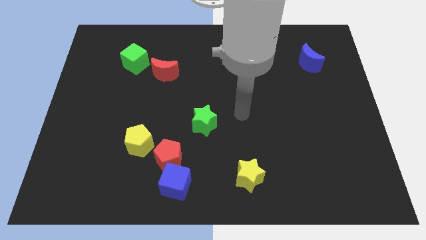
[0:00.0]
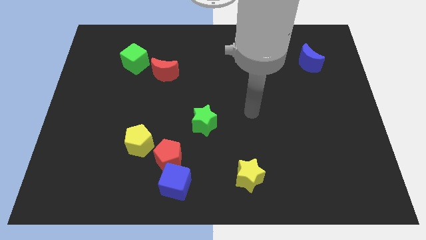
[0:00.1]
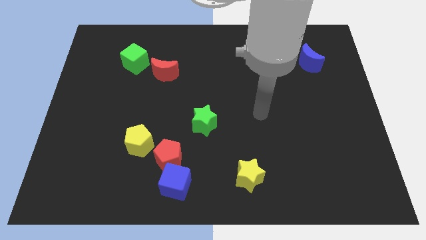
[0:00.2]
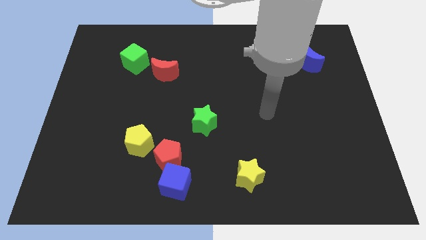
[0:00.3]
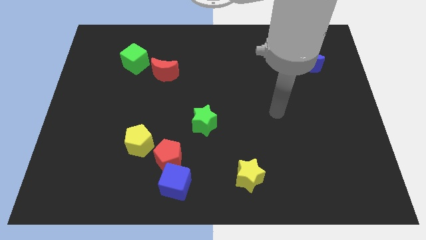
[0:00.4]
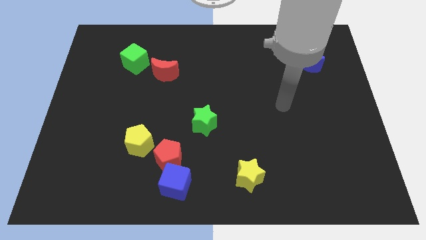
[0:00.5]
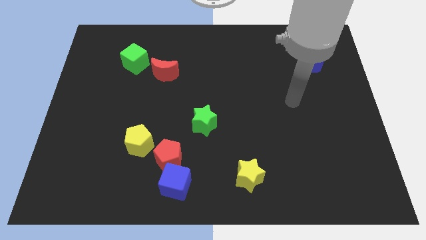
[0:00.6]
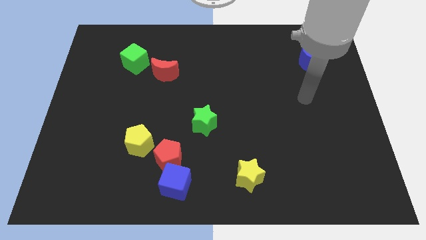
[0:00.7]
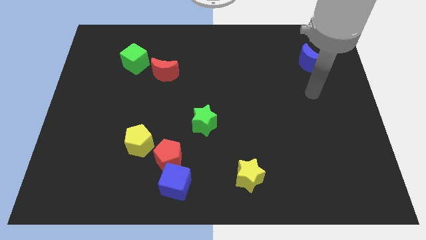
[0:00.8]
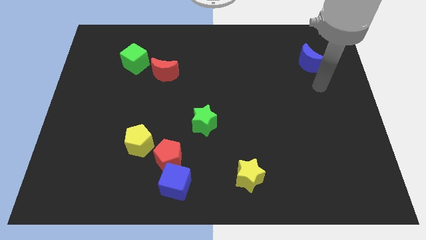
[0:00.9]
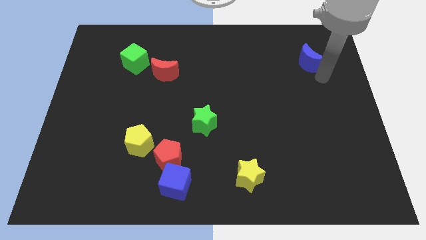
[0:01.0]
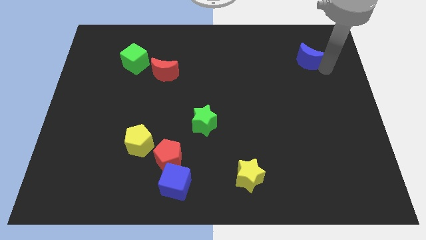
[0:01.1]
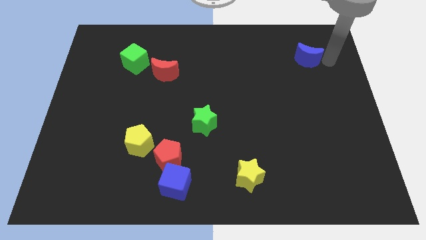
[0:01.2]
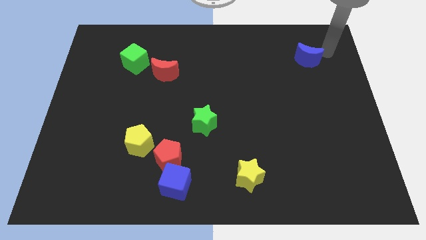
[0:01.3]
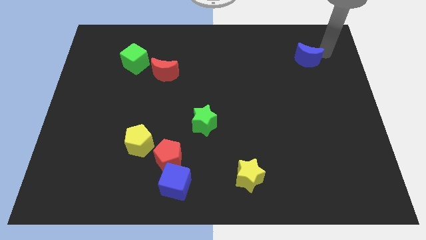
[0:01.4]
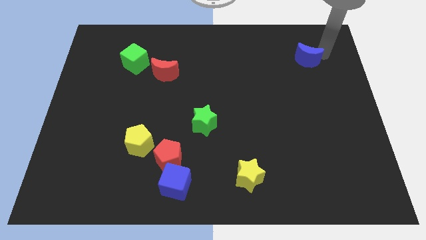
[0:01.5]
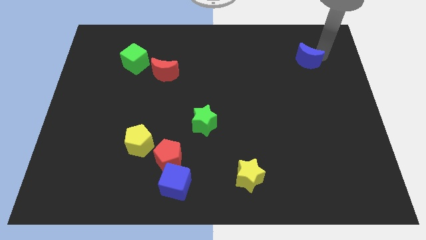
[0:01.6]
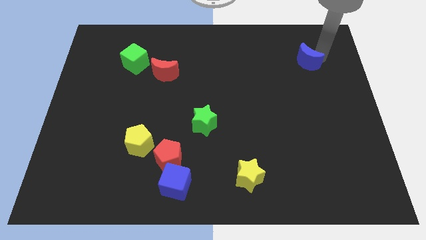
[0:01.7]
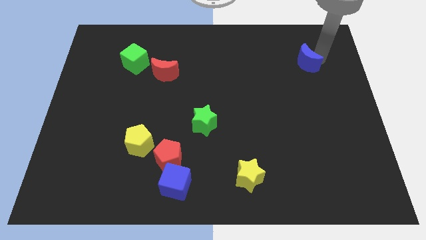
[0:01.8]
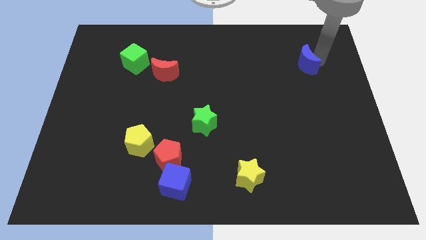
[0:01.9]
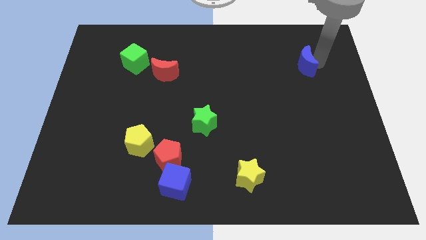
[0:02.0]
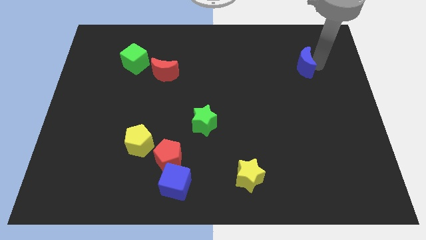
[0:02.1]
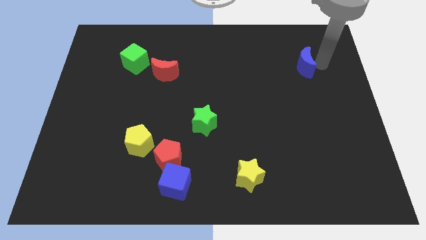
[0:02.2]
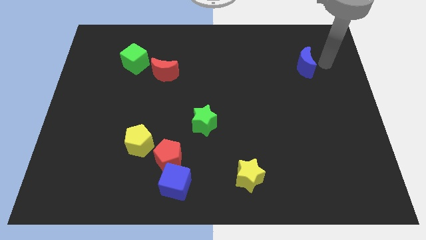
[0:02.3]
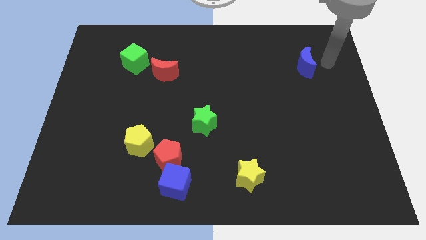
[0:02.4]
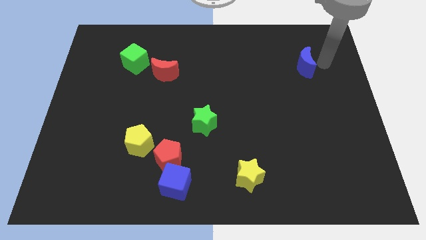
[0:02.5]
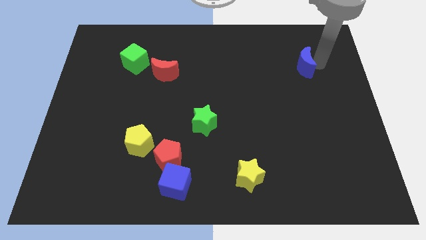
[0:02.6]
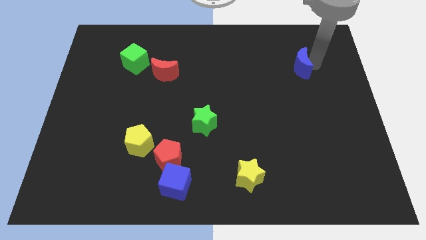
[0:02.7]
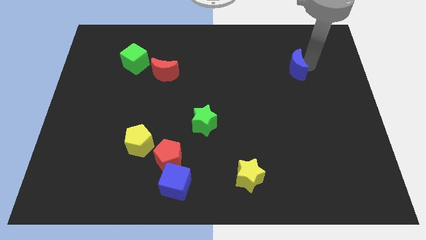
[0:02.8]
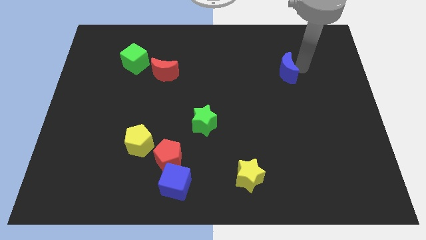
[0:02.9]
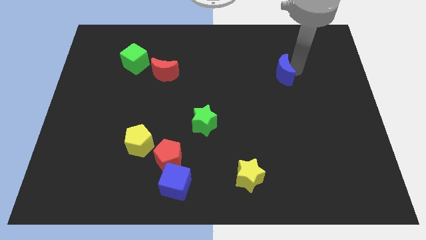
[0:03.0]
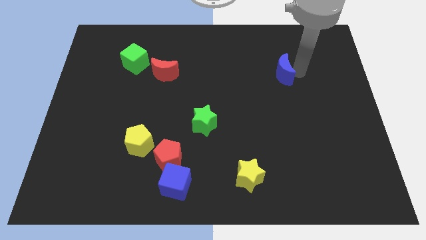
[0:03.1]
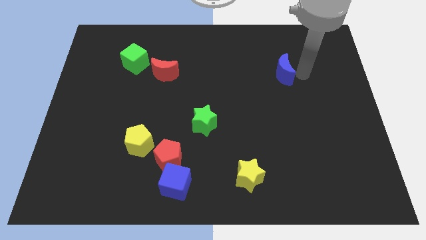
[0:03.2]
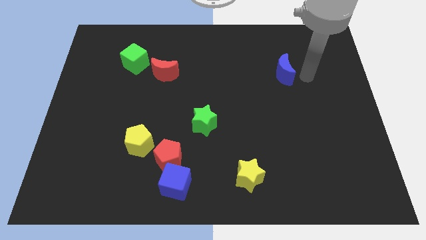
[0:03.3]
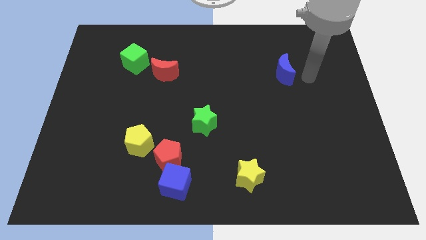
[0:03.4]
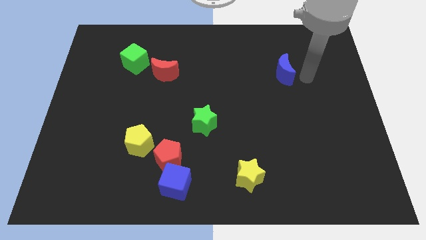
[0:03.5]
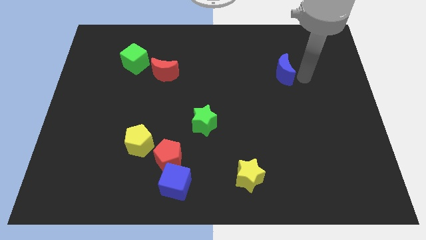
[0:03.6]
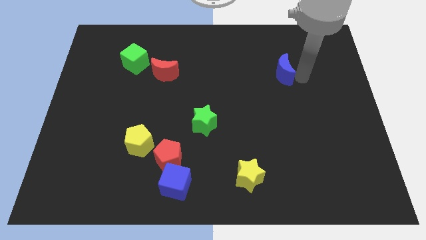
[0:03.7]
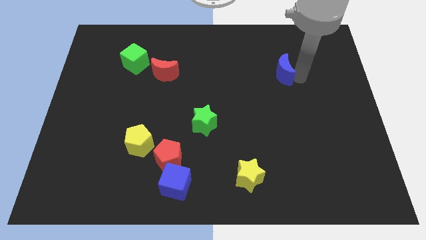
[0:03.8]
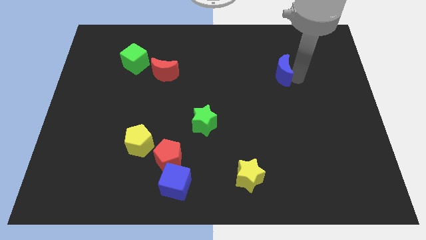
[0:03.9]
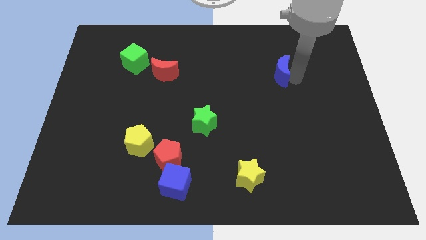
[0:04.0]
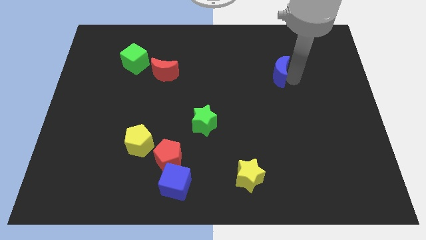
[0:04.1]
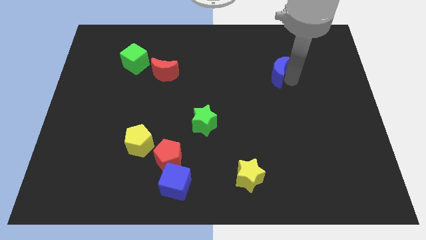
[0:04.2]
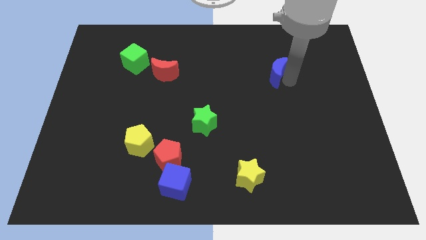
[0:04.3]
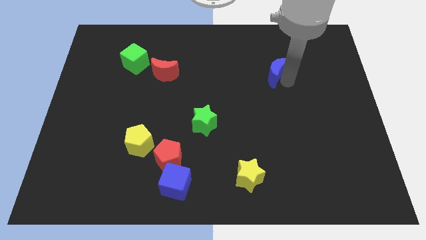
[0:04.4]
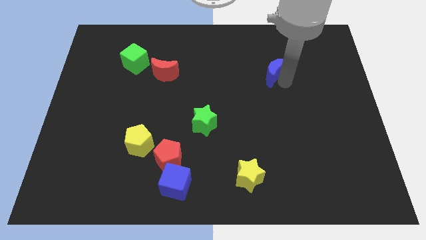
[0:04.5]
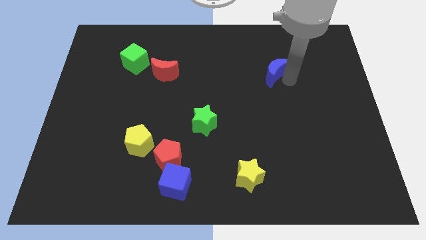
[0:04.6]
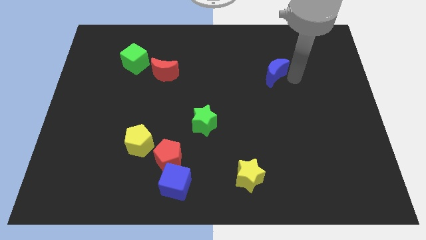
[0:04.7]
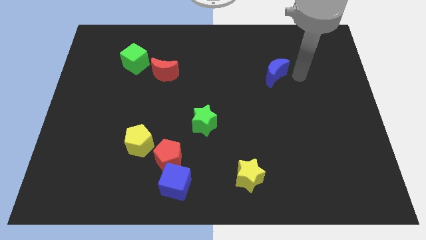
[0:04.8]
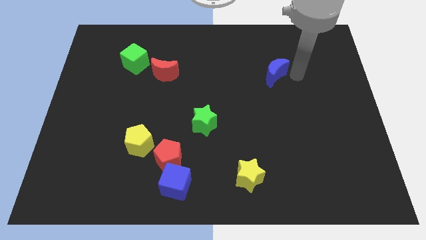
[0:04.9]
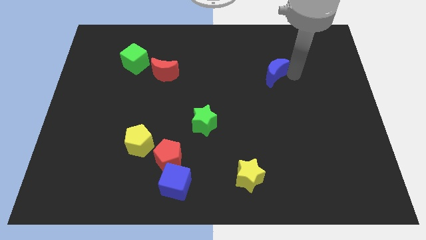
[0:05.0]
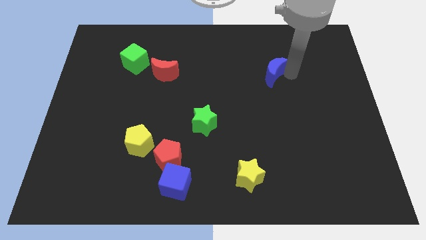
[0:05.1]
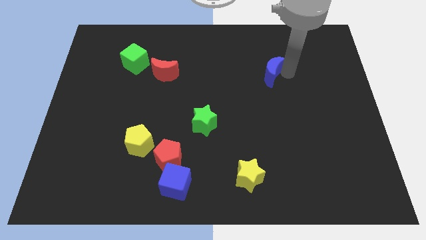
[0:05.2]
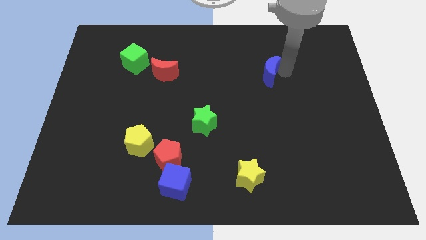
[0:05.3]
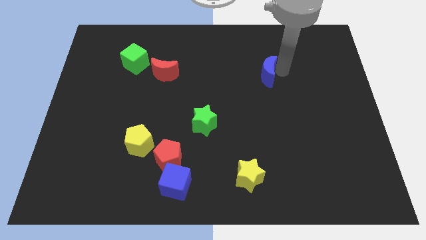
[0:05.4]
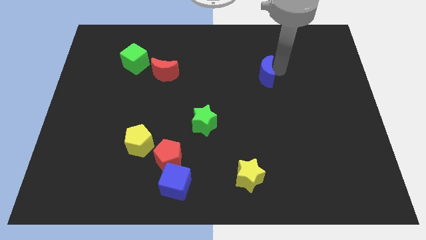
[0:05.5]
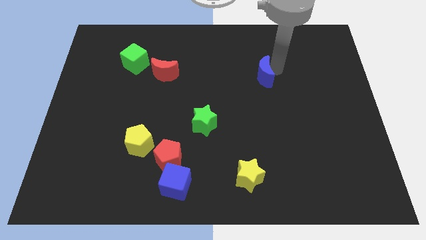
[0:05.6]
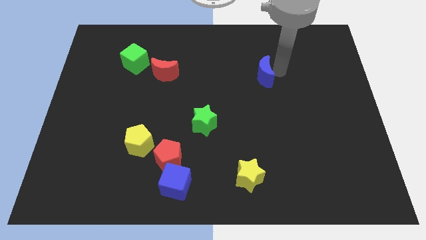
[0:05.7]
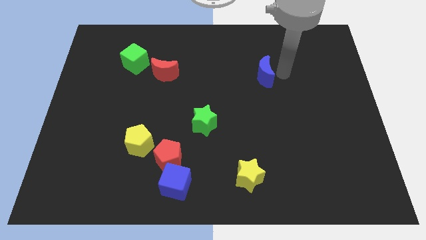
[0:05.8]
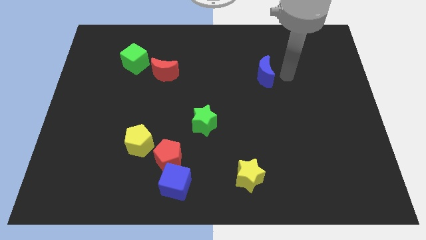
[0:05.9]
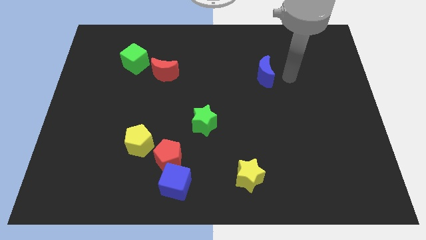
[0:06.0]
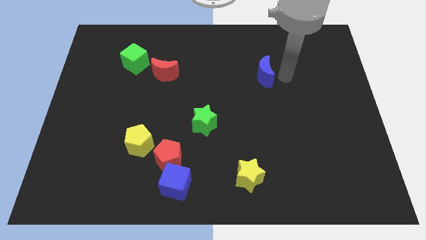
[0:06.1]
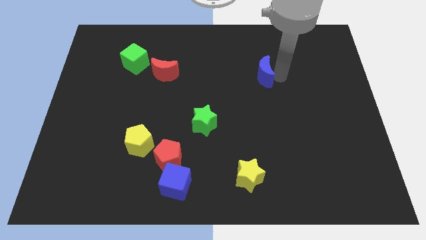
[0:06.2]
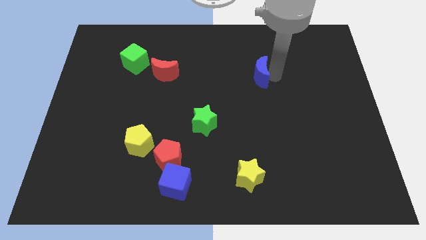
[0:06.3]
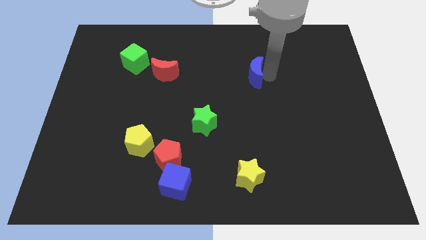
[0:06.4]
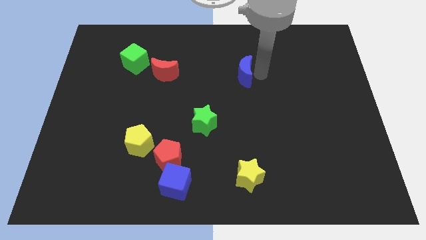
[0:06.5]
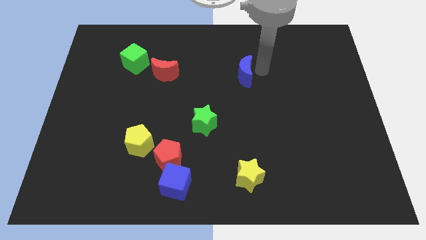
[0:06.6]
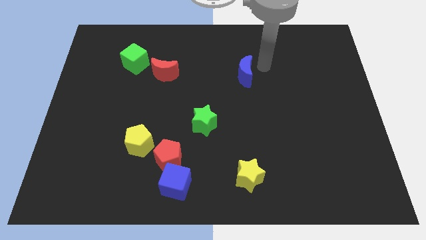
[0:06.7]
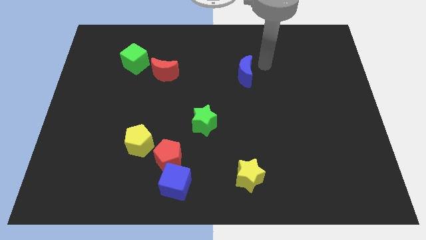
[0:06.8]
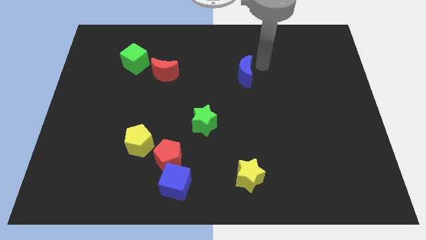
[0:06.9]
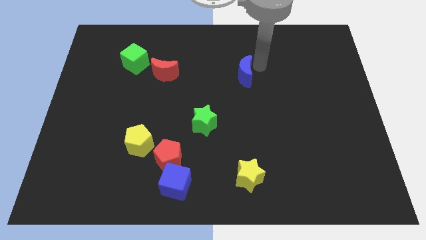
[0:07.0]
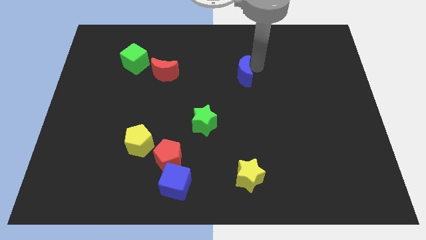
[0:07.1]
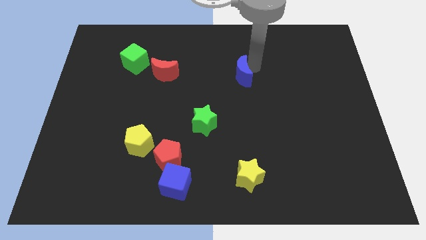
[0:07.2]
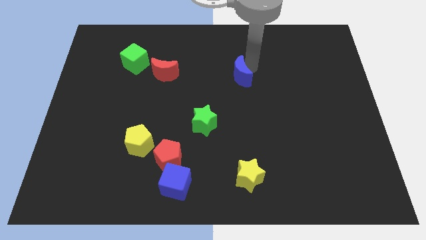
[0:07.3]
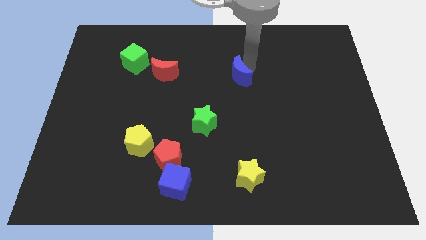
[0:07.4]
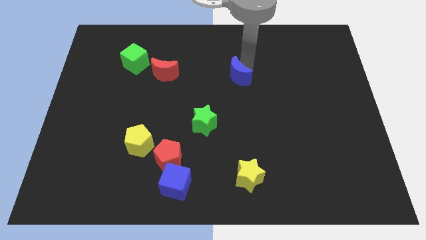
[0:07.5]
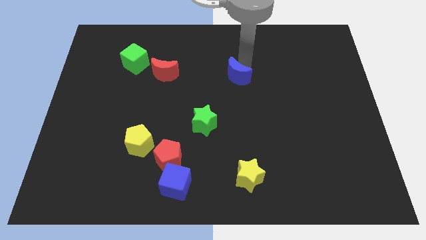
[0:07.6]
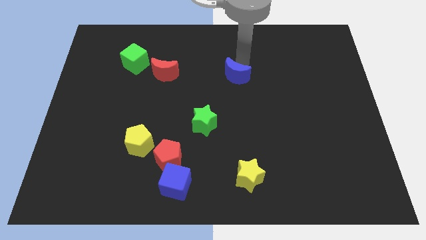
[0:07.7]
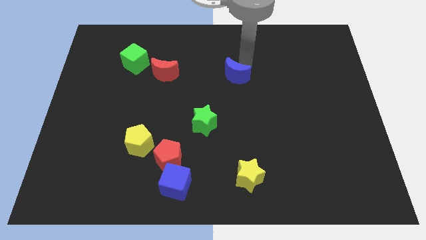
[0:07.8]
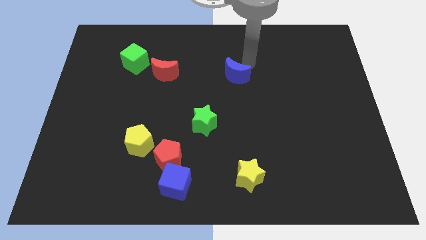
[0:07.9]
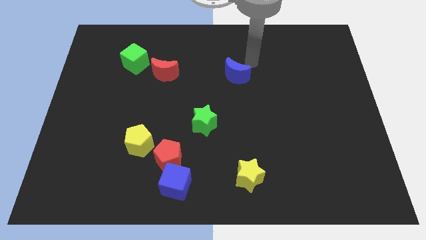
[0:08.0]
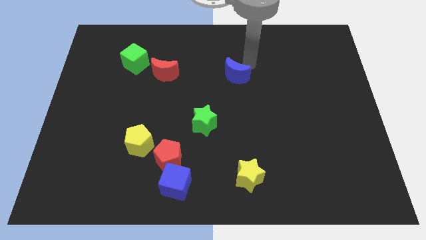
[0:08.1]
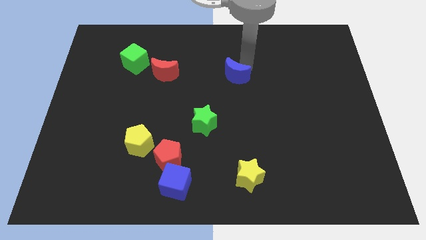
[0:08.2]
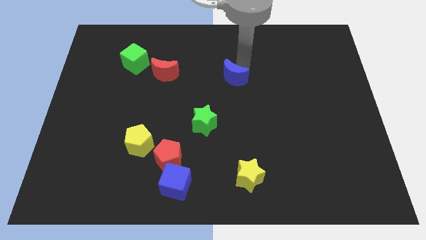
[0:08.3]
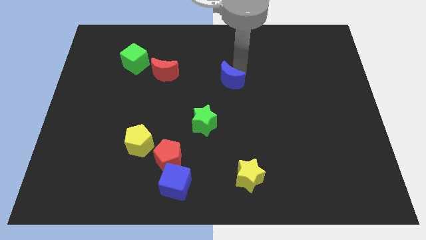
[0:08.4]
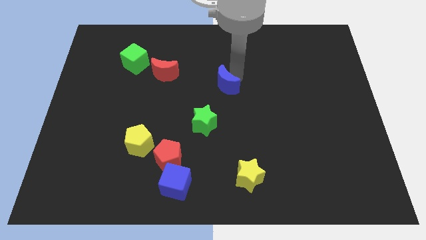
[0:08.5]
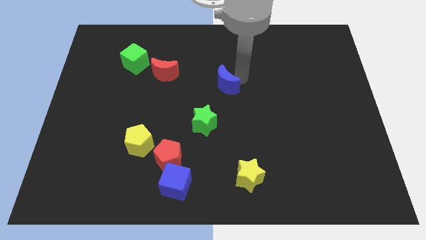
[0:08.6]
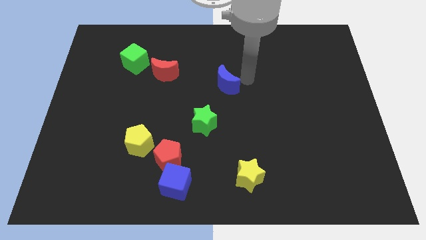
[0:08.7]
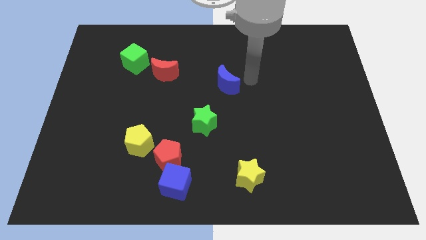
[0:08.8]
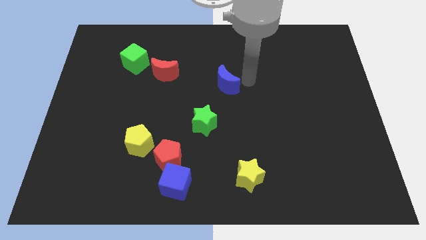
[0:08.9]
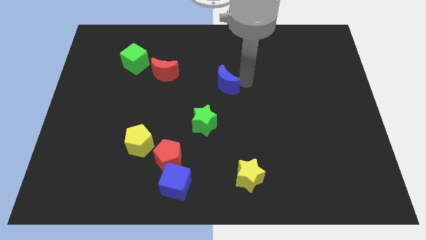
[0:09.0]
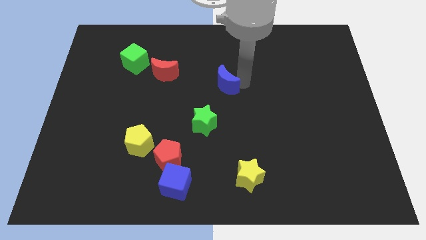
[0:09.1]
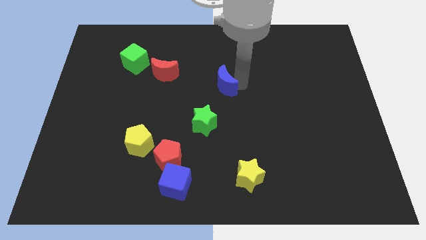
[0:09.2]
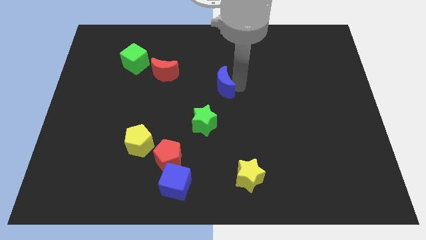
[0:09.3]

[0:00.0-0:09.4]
push the blue moon to the top of the green star
